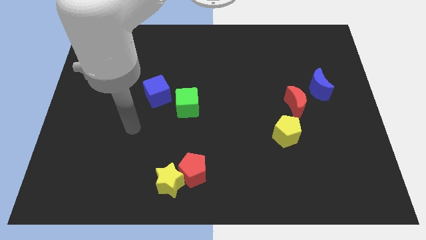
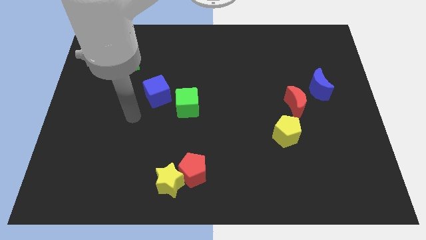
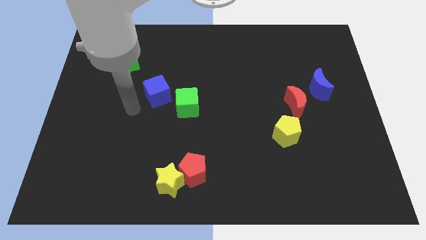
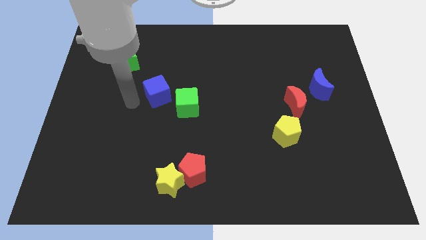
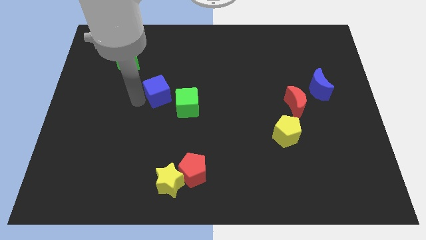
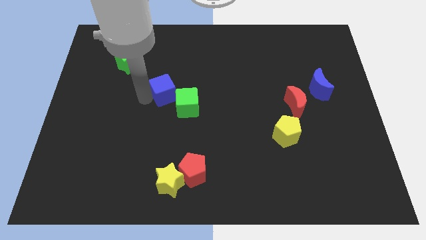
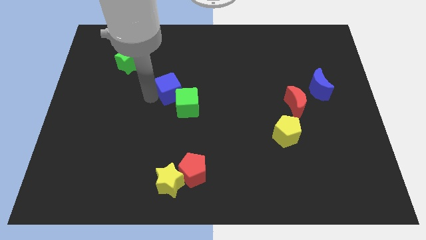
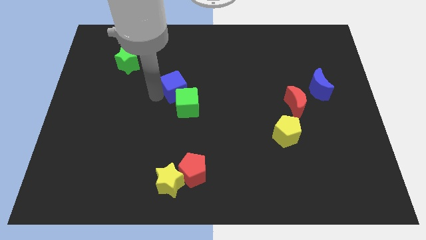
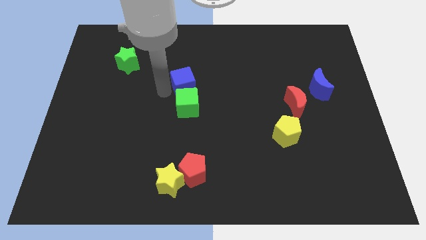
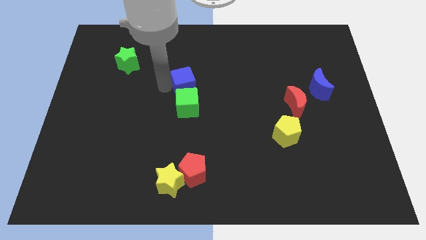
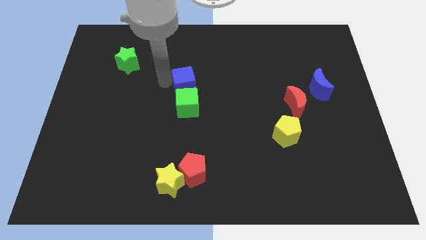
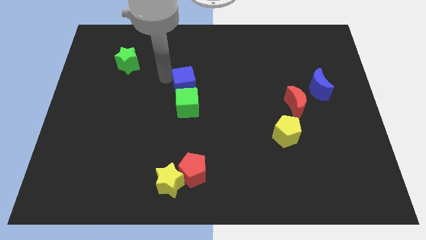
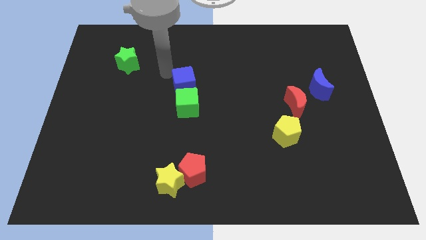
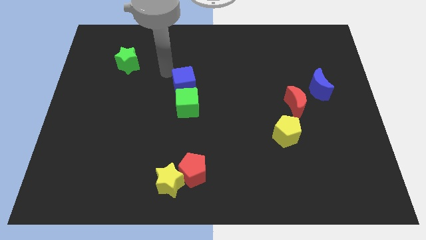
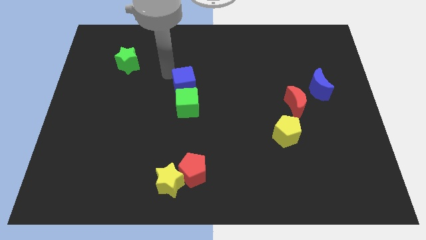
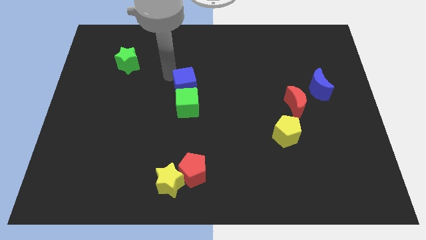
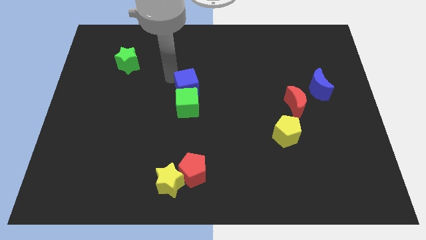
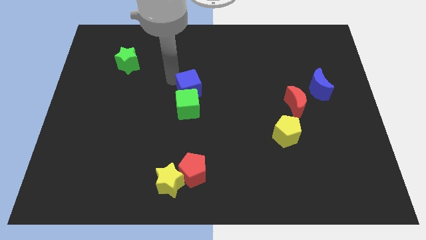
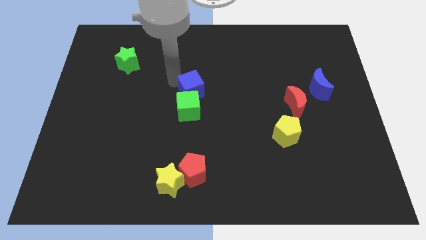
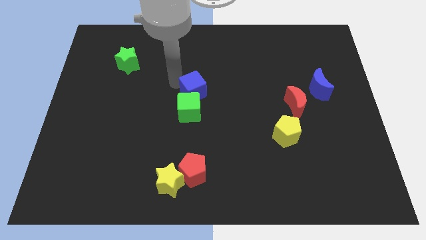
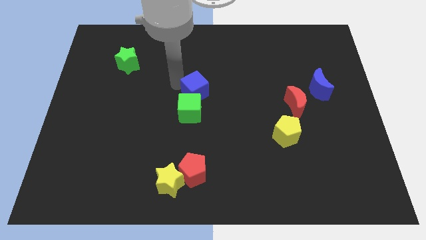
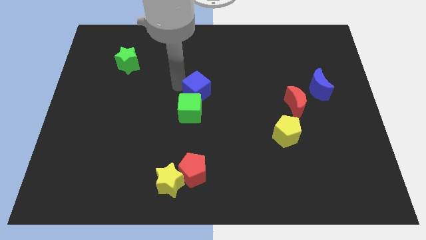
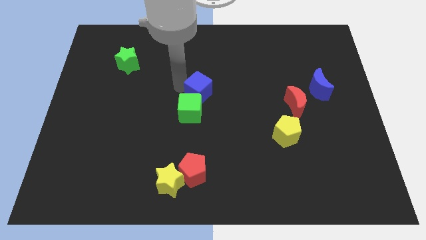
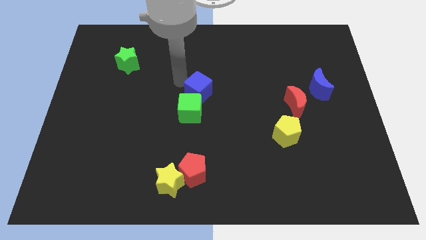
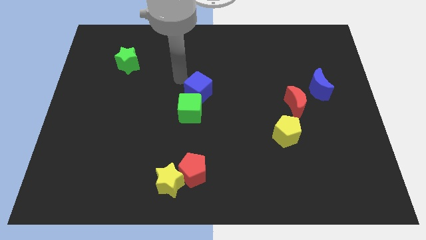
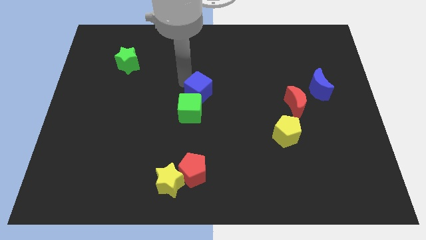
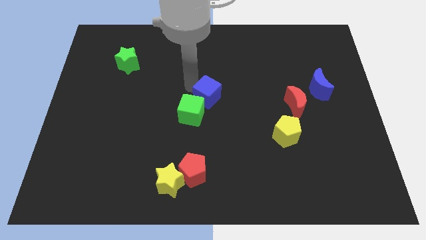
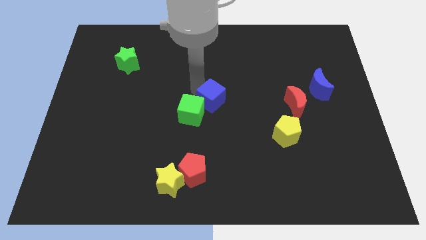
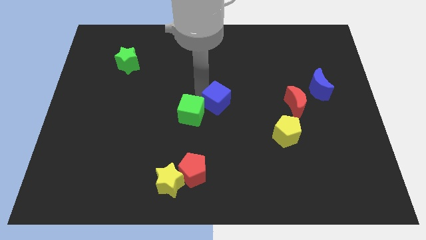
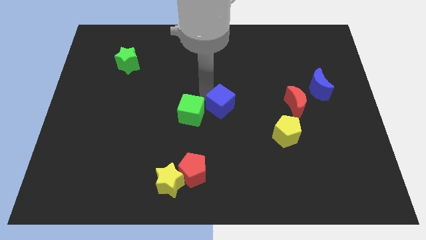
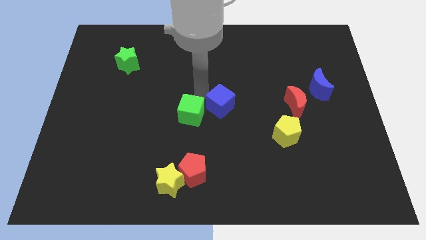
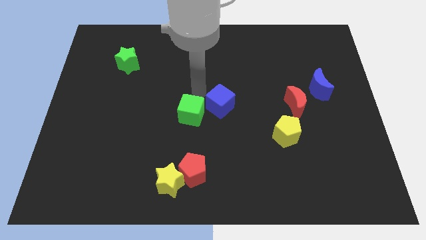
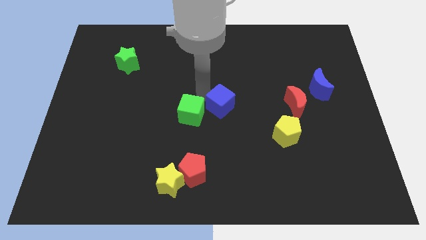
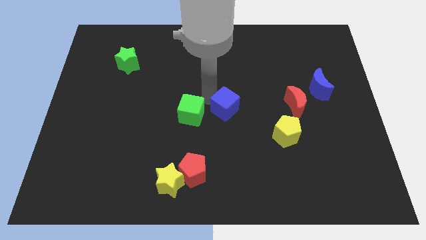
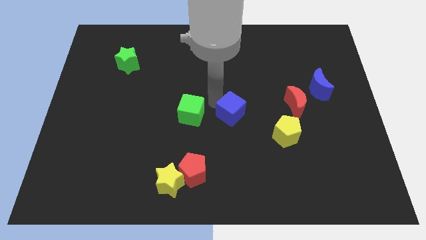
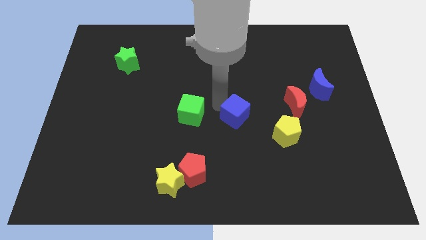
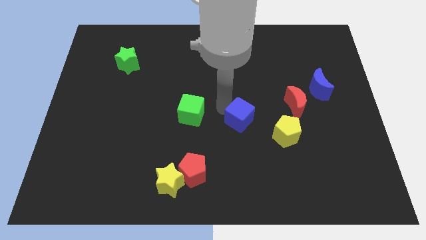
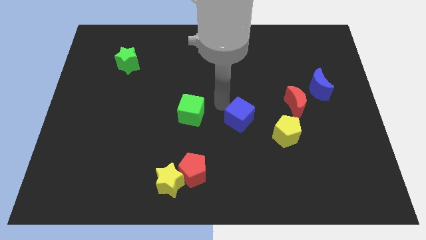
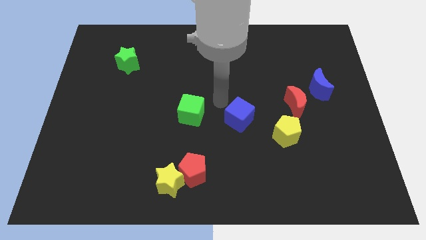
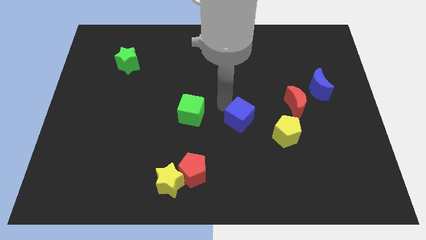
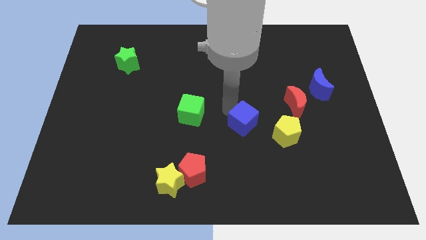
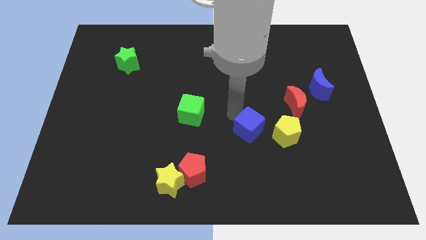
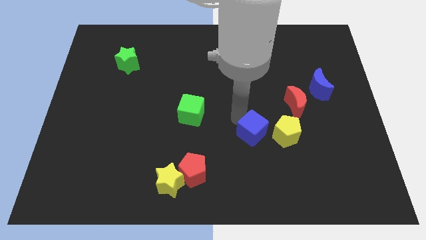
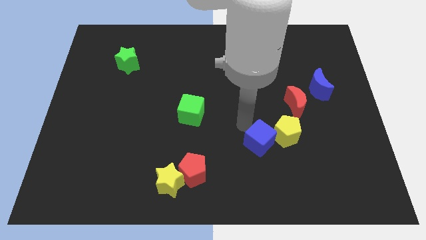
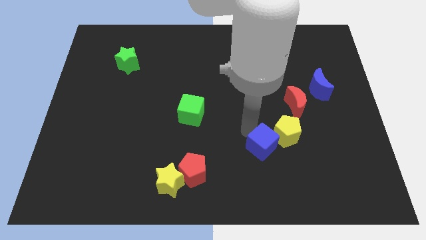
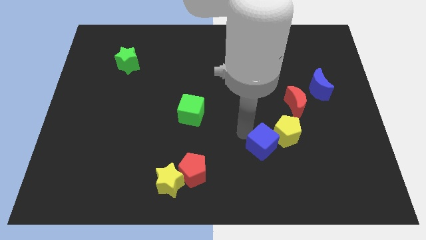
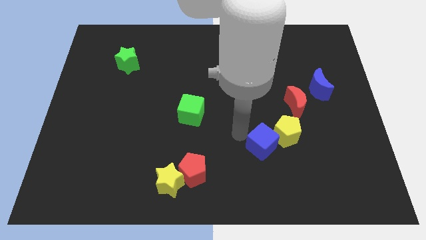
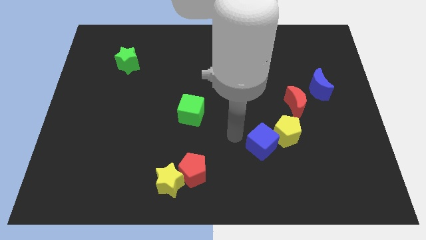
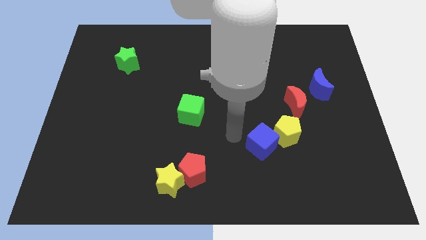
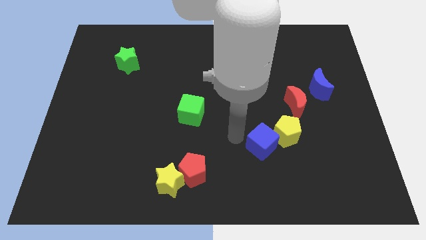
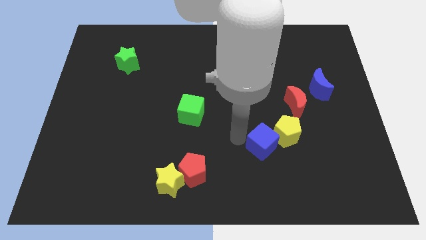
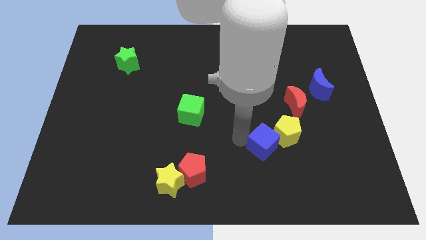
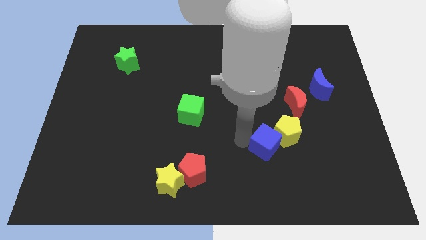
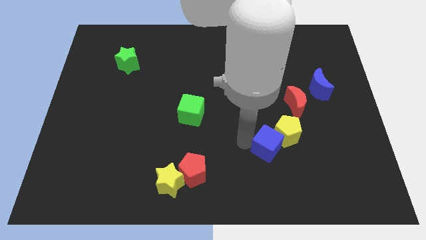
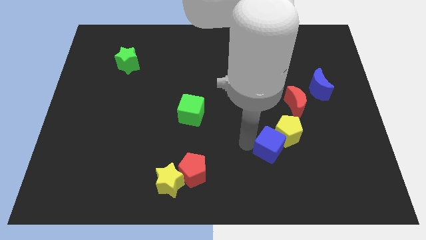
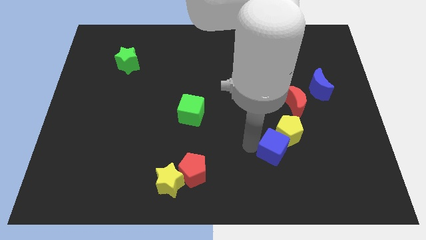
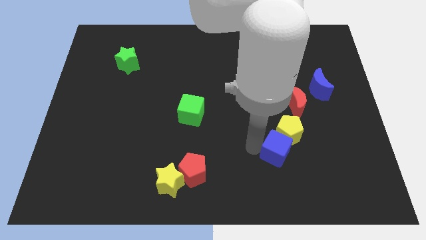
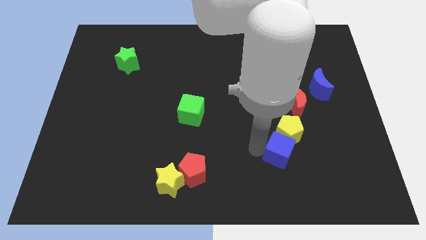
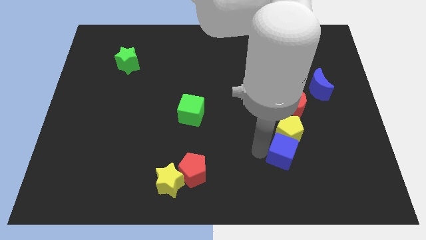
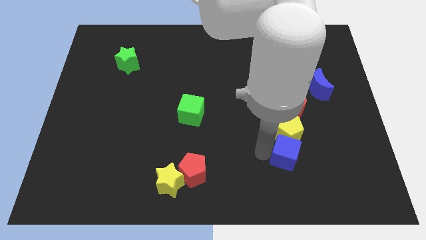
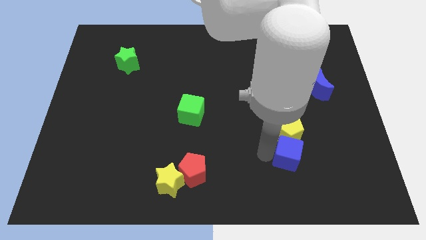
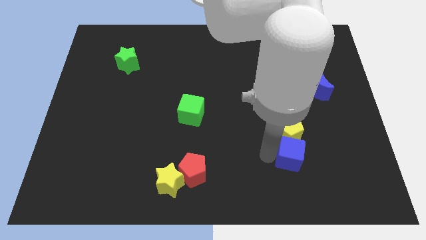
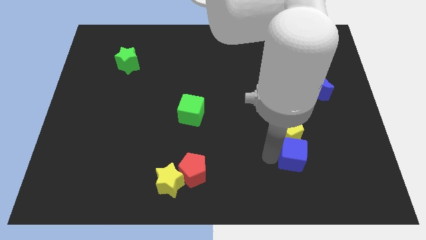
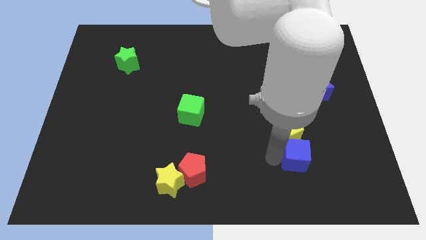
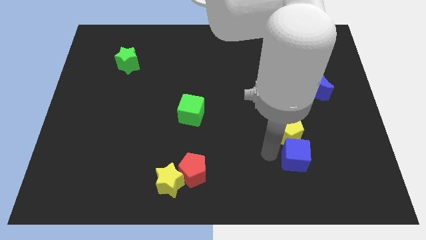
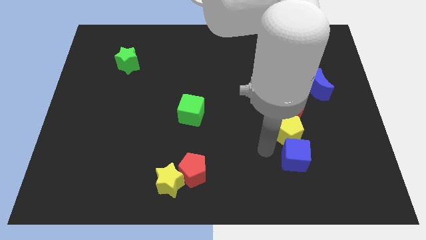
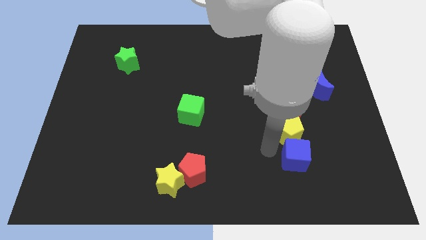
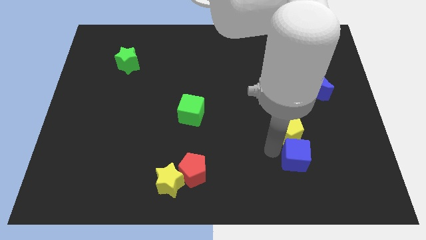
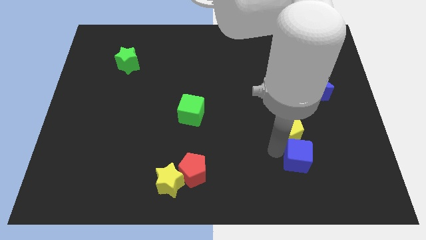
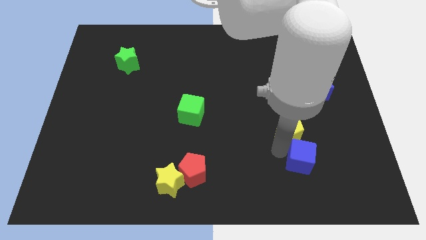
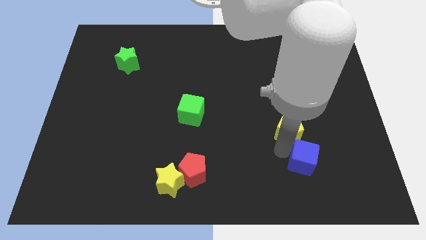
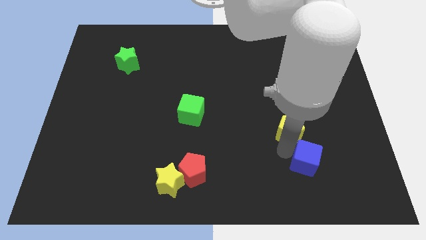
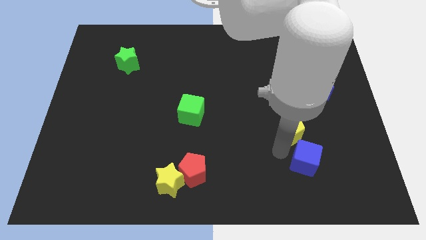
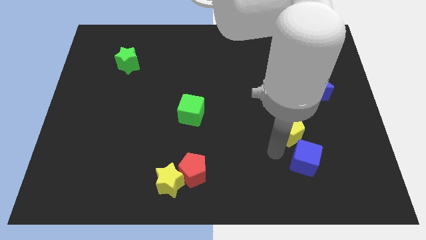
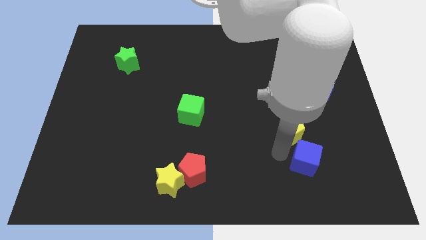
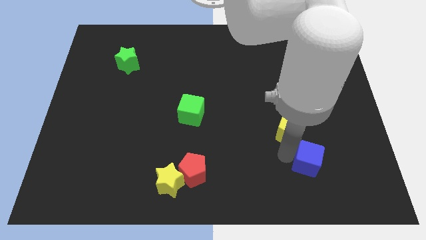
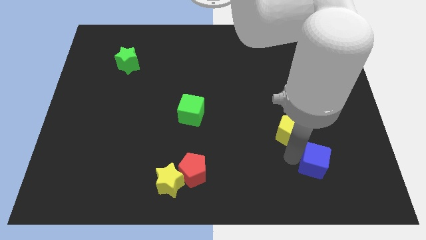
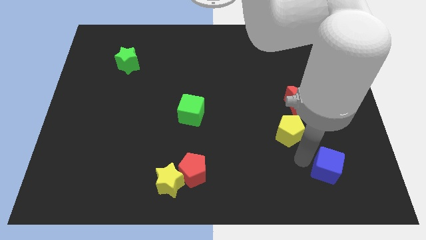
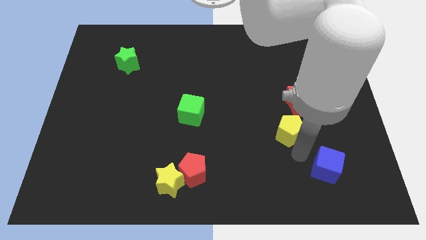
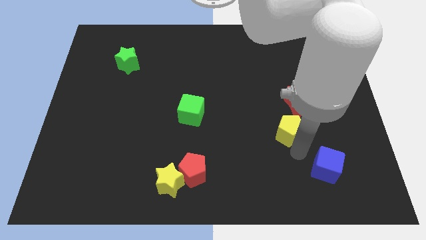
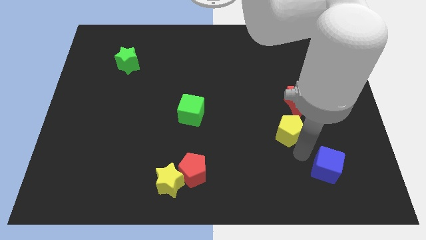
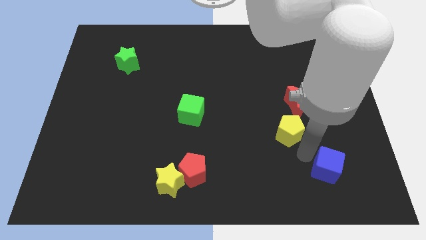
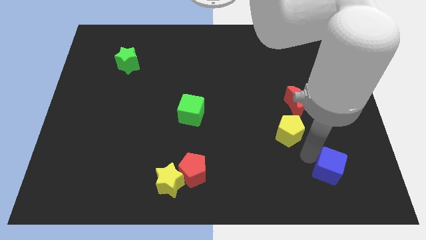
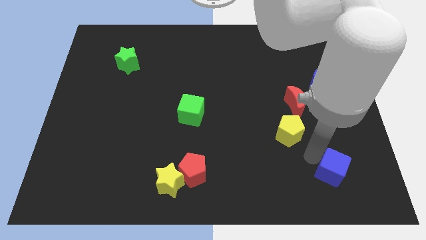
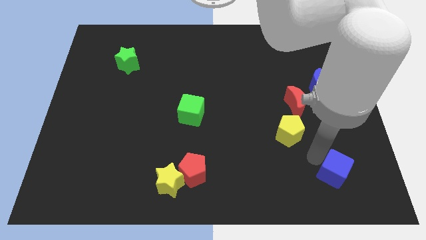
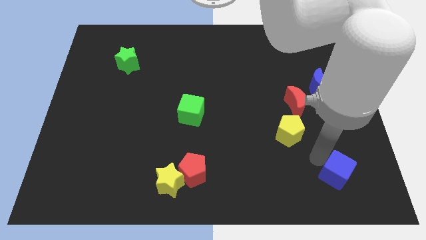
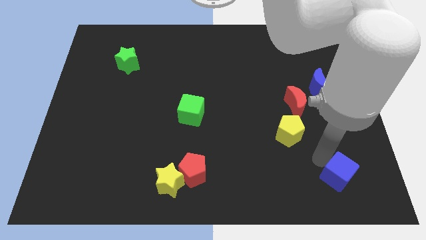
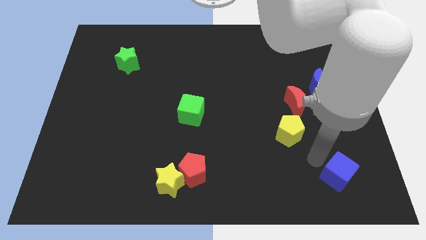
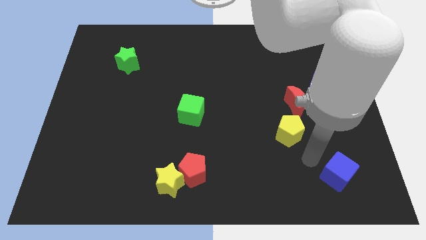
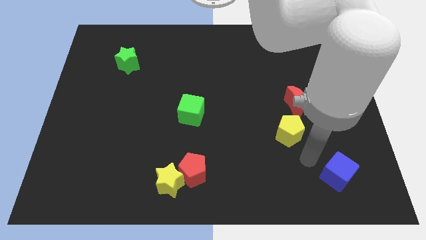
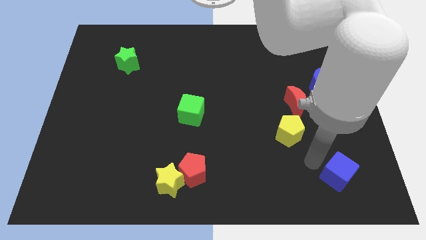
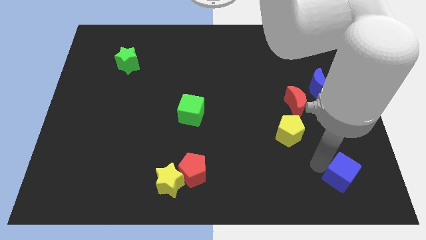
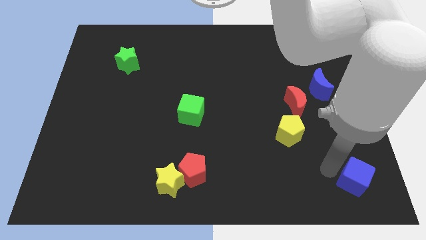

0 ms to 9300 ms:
move the blue cube to the bottom right
